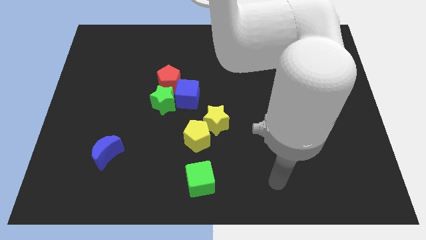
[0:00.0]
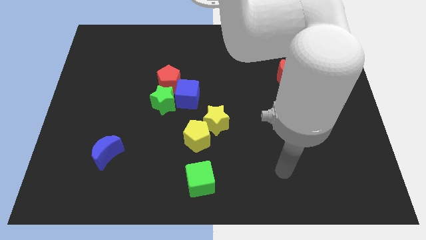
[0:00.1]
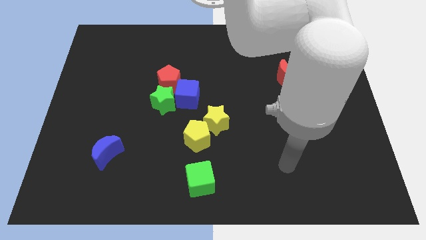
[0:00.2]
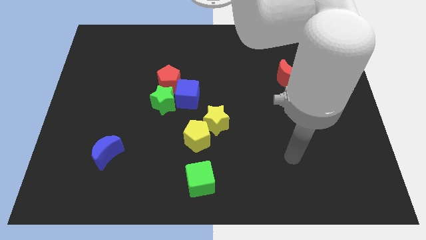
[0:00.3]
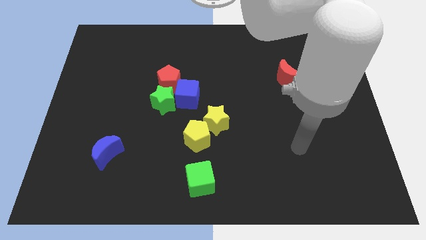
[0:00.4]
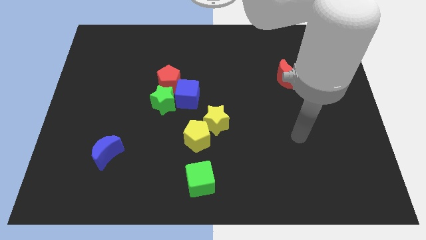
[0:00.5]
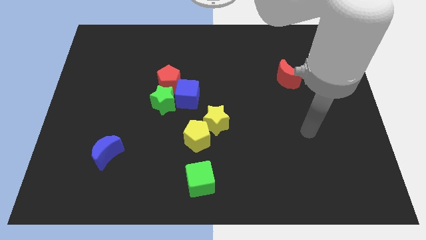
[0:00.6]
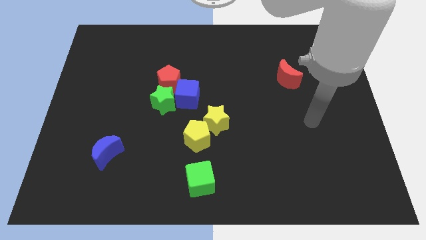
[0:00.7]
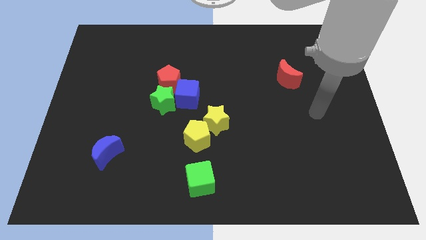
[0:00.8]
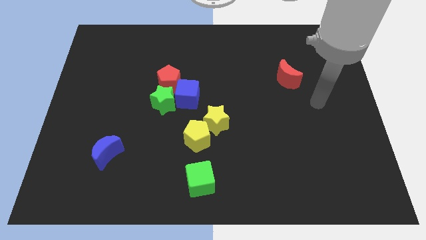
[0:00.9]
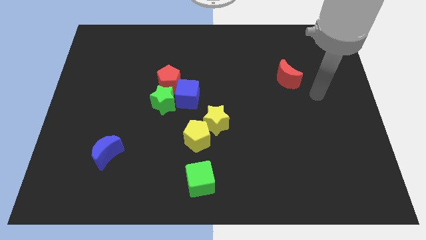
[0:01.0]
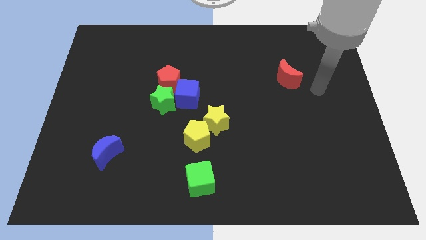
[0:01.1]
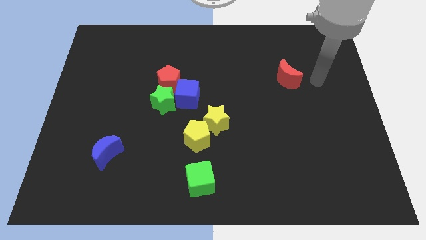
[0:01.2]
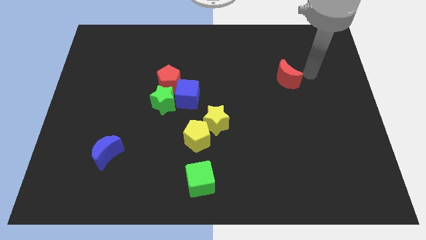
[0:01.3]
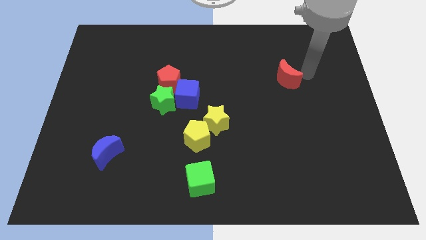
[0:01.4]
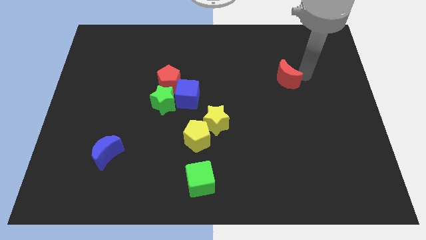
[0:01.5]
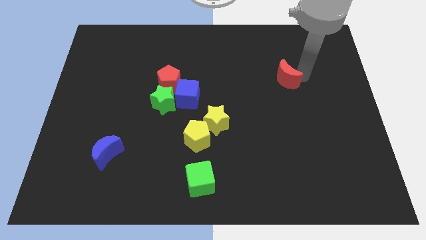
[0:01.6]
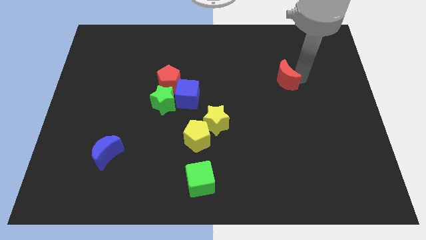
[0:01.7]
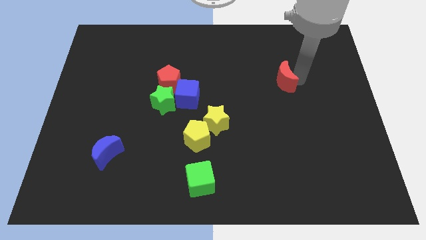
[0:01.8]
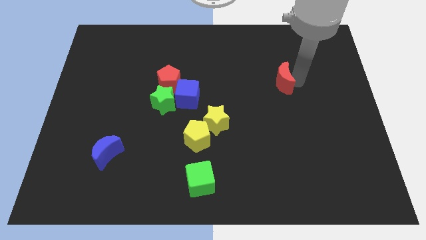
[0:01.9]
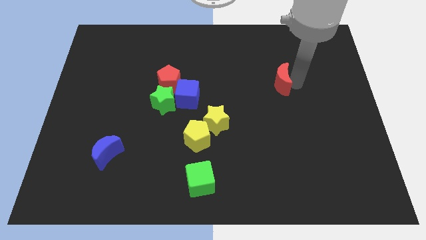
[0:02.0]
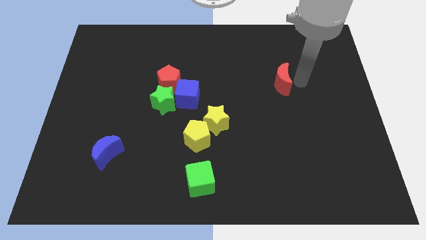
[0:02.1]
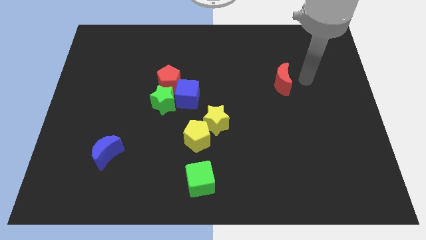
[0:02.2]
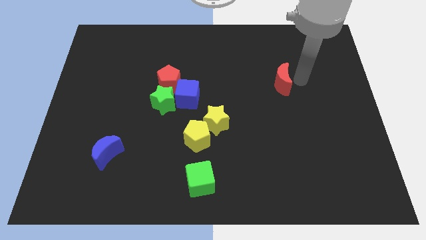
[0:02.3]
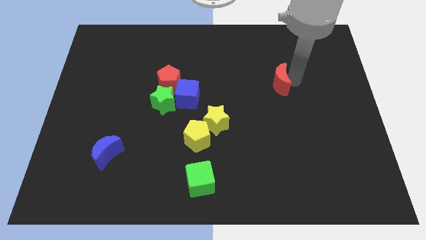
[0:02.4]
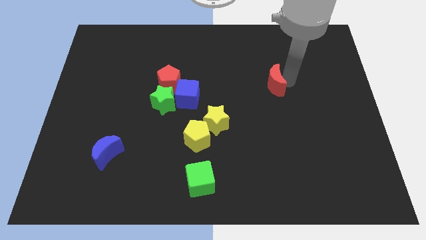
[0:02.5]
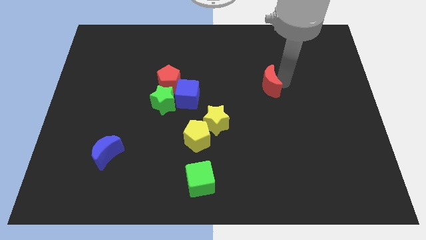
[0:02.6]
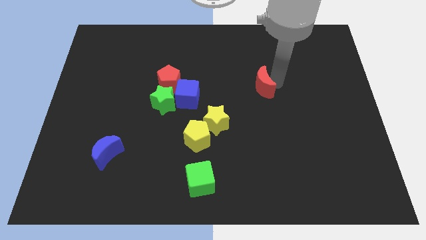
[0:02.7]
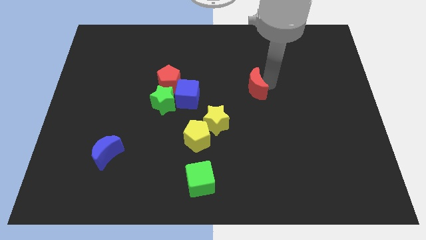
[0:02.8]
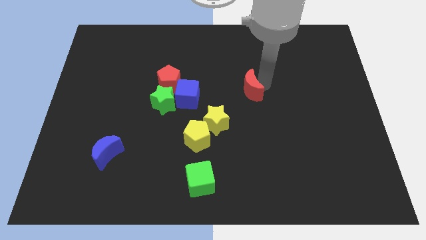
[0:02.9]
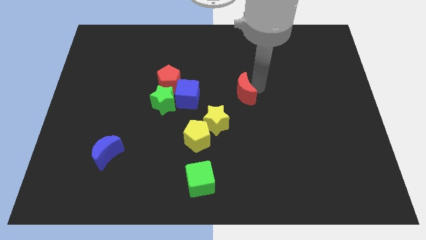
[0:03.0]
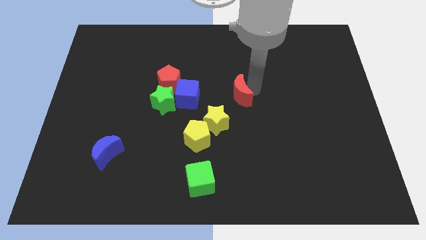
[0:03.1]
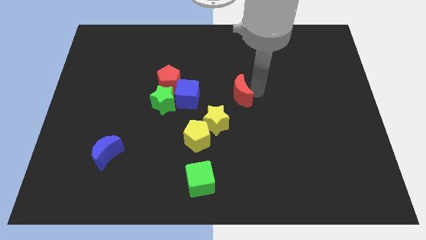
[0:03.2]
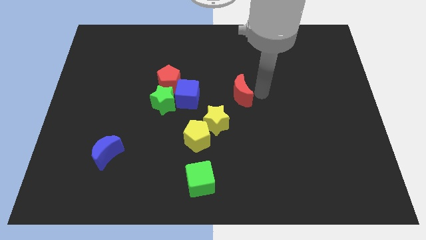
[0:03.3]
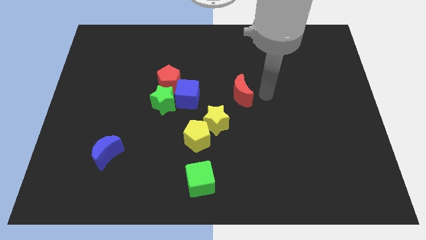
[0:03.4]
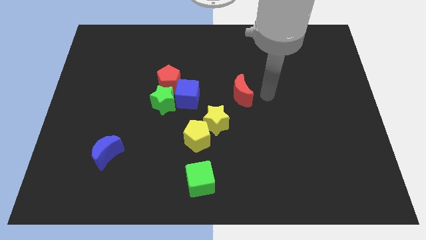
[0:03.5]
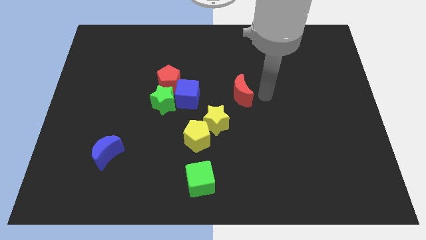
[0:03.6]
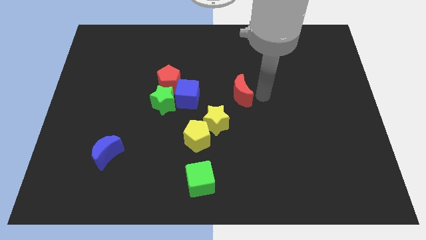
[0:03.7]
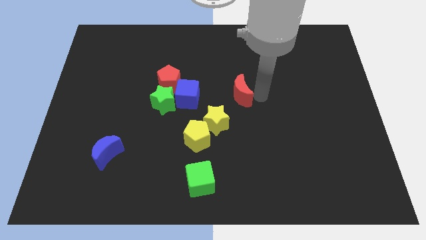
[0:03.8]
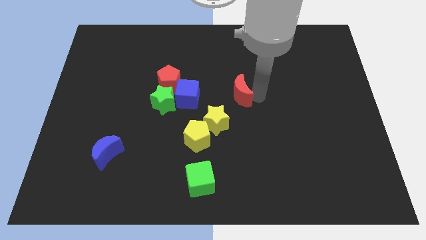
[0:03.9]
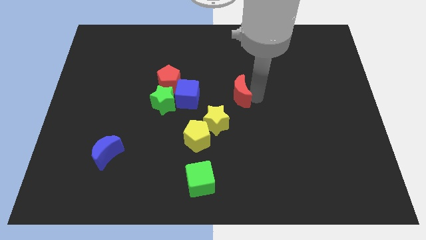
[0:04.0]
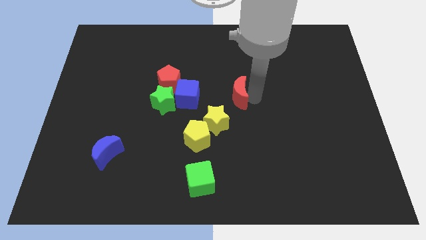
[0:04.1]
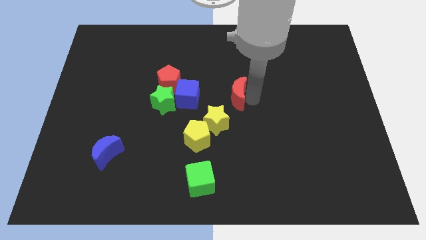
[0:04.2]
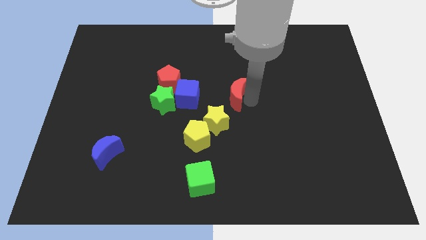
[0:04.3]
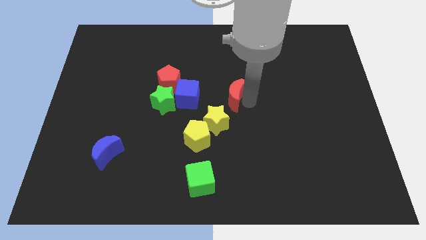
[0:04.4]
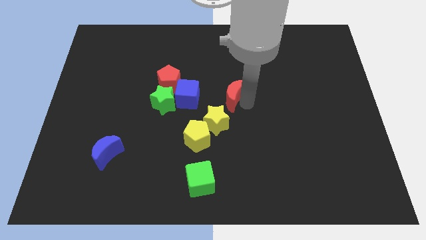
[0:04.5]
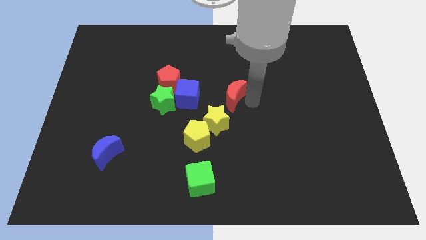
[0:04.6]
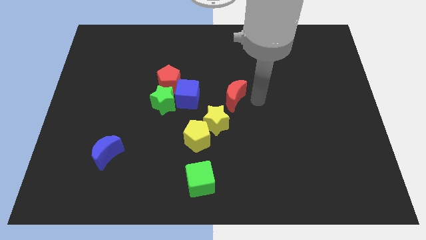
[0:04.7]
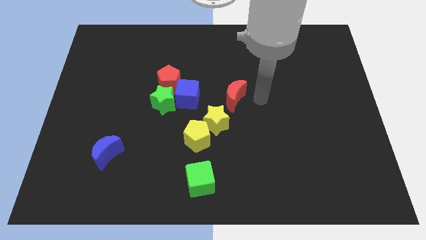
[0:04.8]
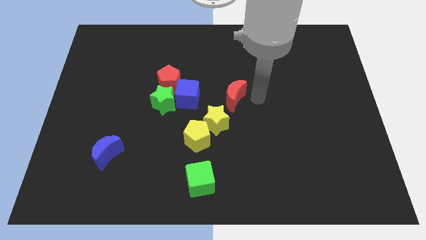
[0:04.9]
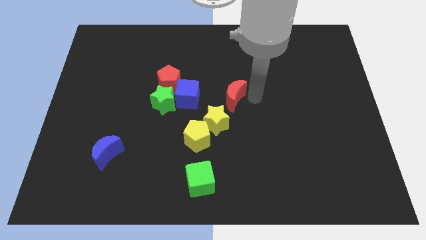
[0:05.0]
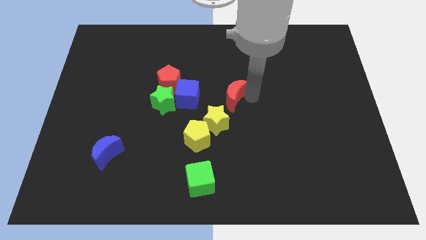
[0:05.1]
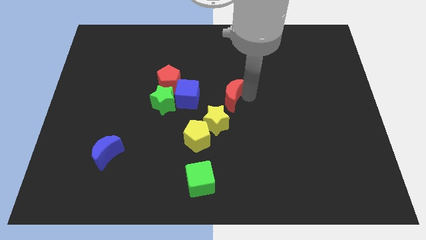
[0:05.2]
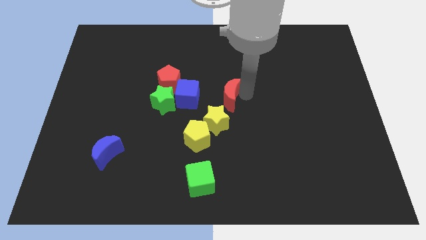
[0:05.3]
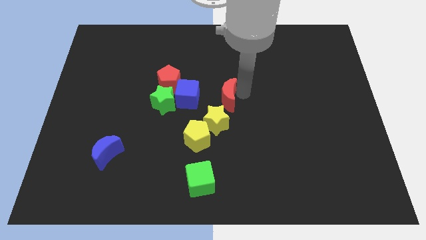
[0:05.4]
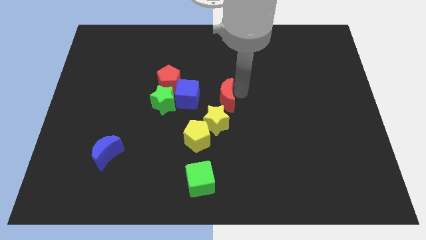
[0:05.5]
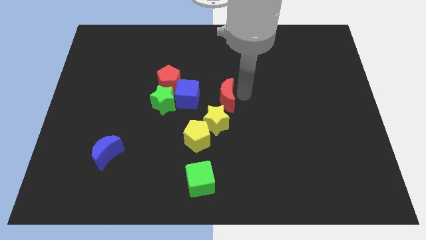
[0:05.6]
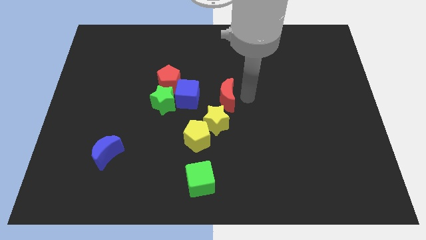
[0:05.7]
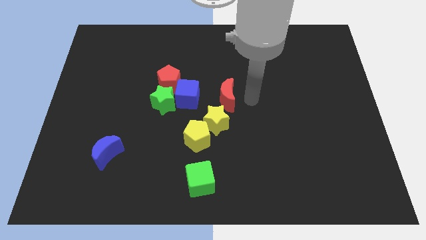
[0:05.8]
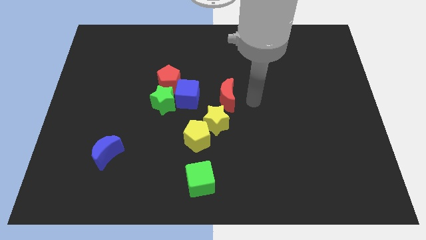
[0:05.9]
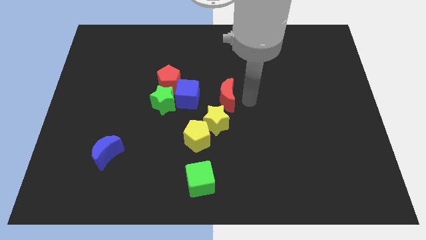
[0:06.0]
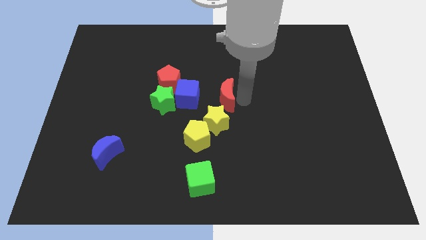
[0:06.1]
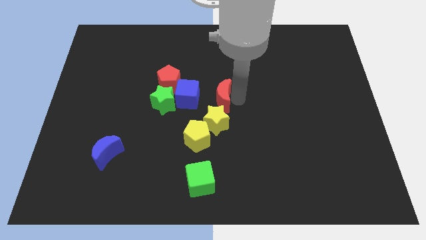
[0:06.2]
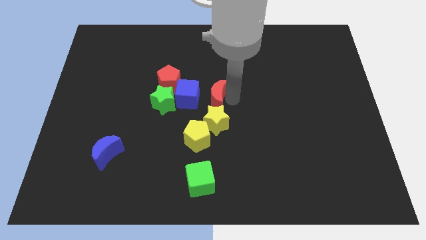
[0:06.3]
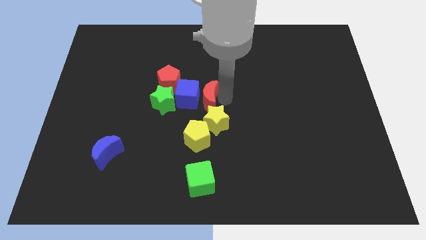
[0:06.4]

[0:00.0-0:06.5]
slide the red moon towards the blue cube
